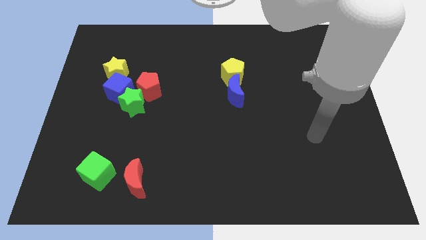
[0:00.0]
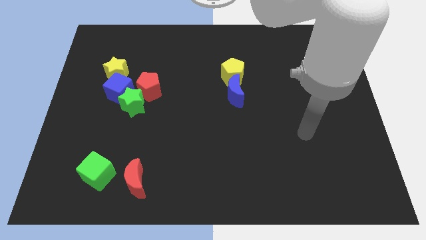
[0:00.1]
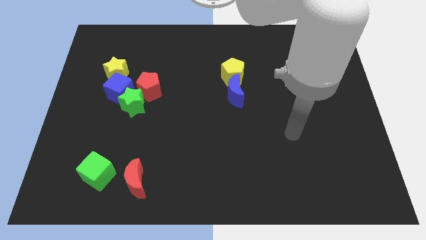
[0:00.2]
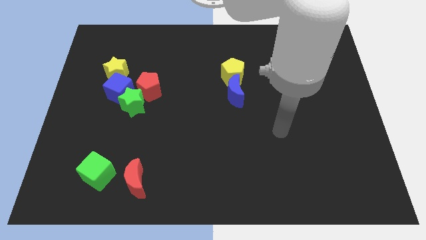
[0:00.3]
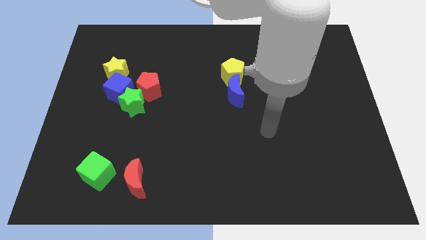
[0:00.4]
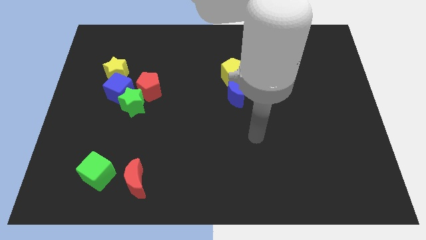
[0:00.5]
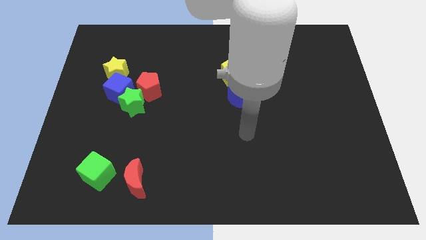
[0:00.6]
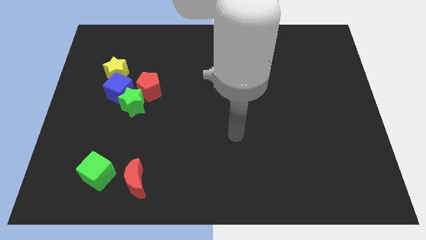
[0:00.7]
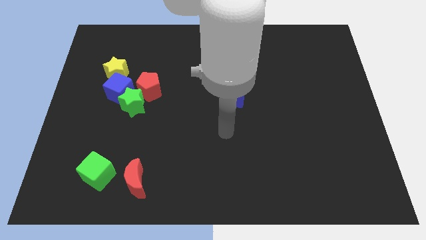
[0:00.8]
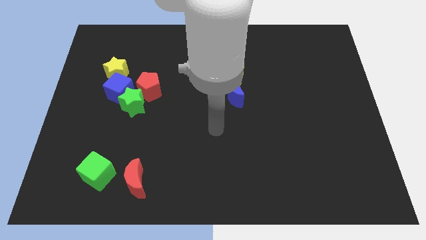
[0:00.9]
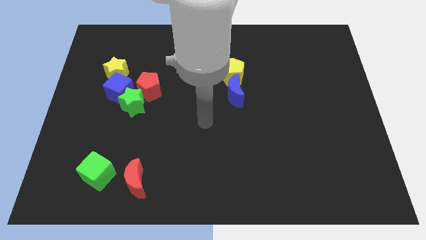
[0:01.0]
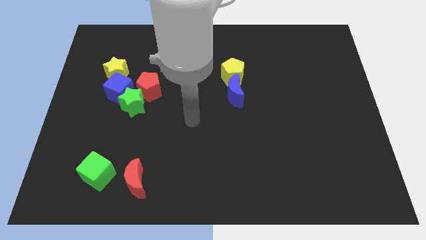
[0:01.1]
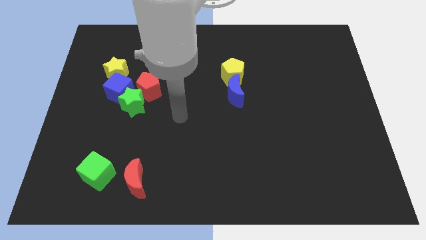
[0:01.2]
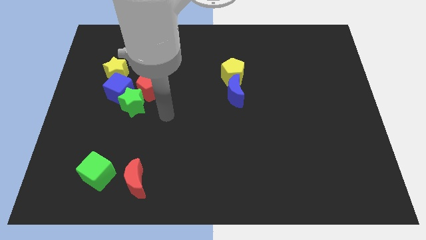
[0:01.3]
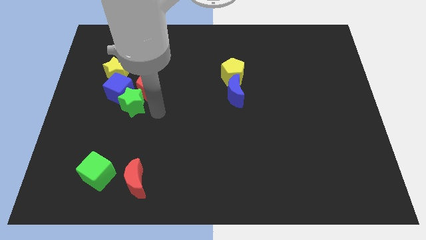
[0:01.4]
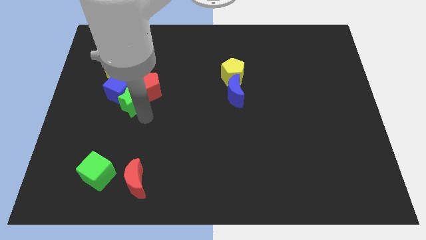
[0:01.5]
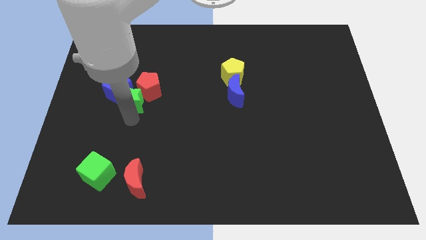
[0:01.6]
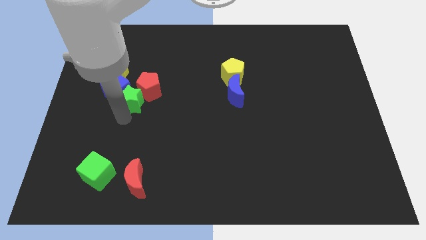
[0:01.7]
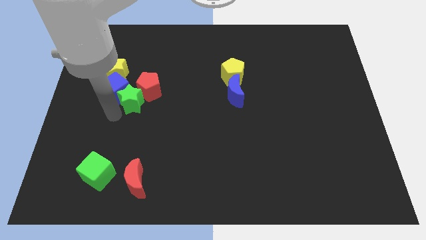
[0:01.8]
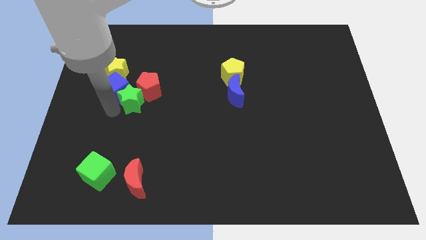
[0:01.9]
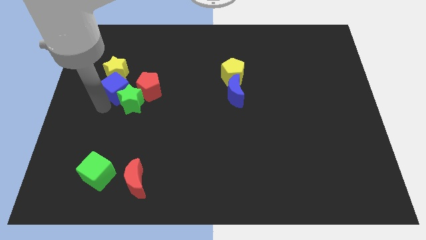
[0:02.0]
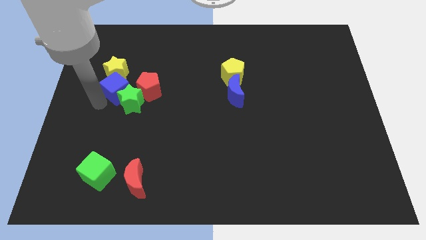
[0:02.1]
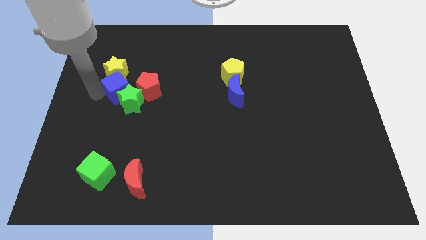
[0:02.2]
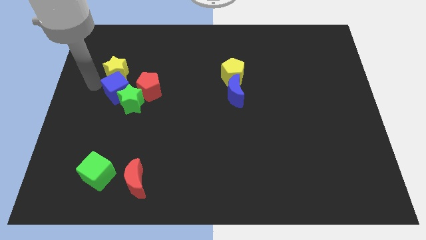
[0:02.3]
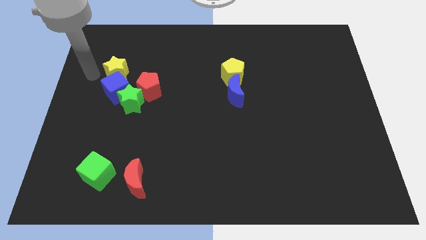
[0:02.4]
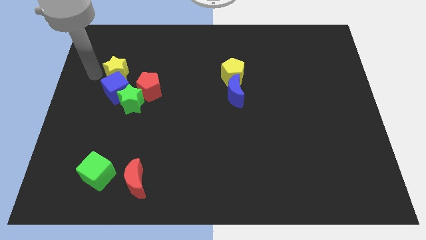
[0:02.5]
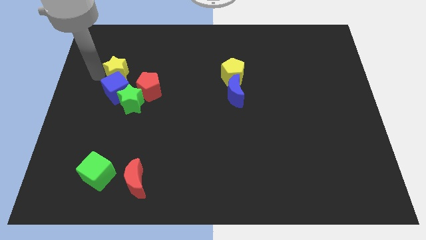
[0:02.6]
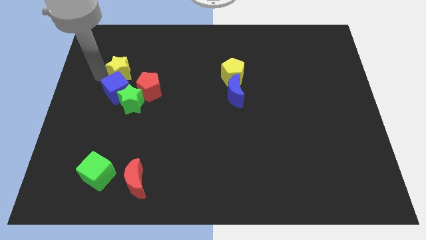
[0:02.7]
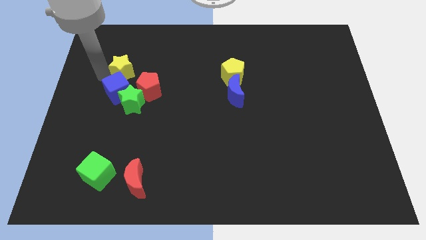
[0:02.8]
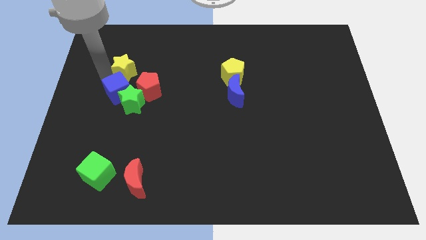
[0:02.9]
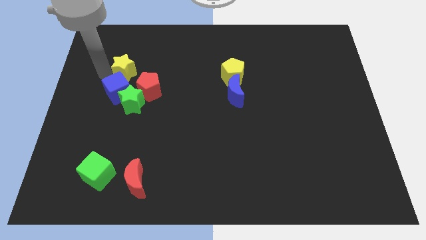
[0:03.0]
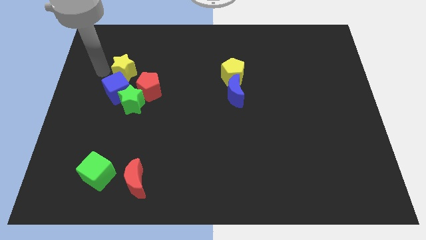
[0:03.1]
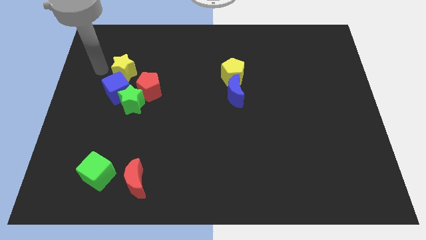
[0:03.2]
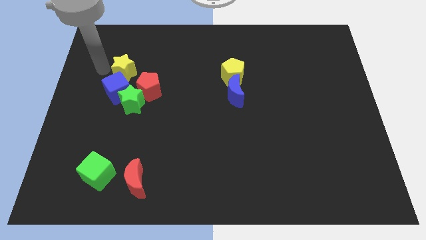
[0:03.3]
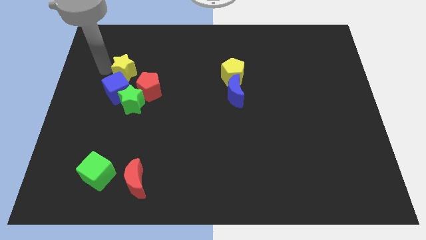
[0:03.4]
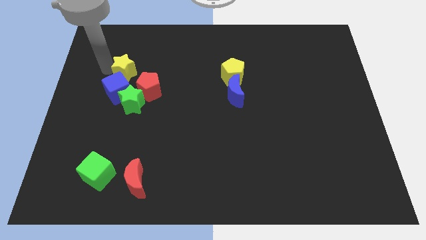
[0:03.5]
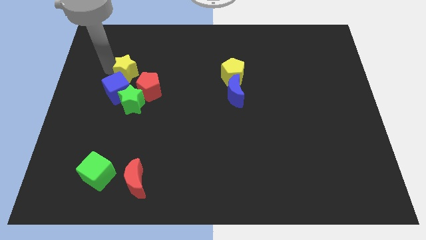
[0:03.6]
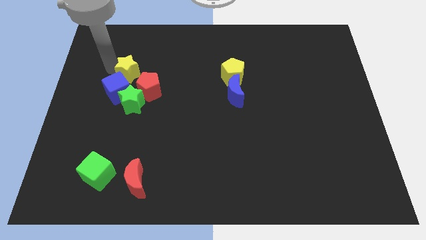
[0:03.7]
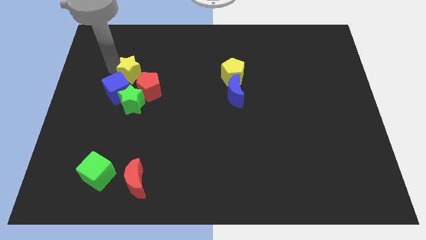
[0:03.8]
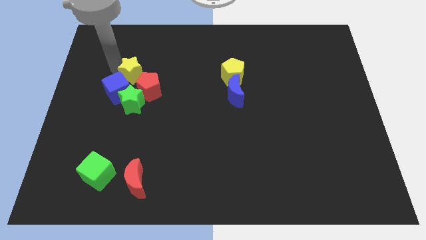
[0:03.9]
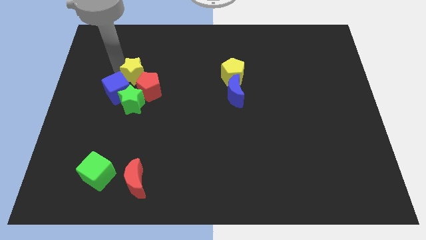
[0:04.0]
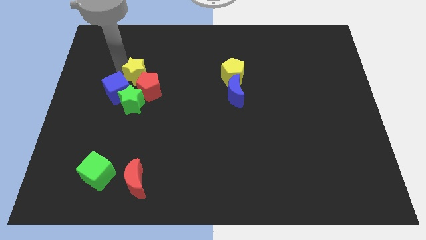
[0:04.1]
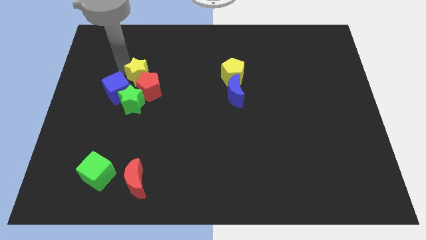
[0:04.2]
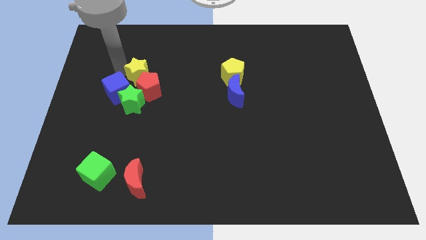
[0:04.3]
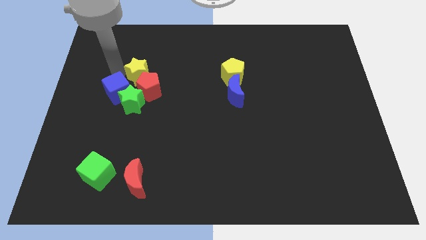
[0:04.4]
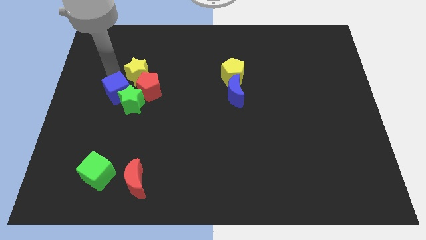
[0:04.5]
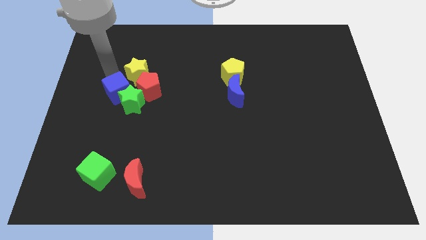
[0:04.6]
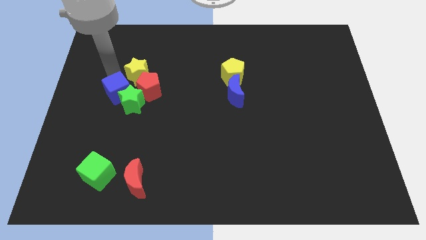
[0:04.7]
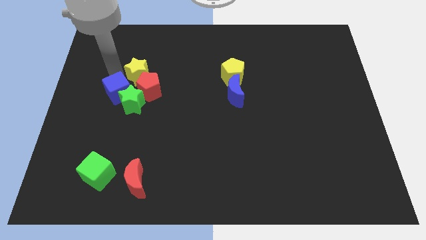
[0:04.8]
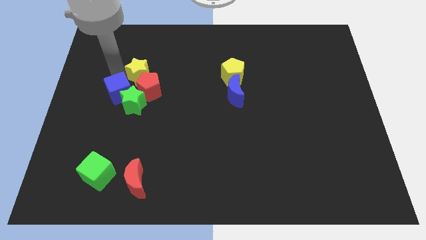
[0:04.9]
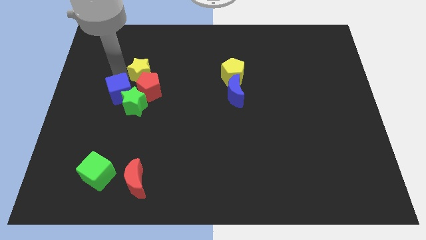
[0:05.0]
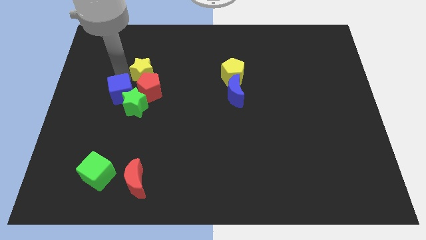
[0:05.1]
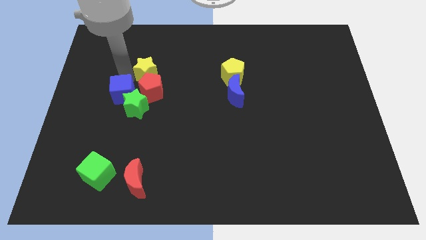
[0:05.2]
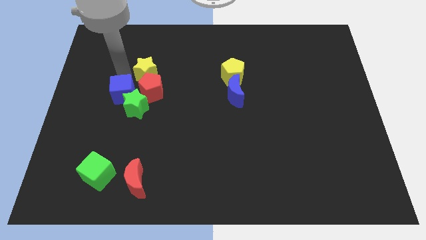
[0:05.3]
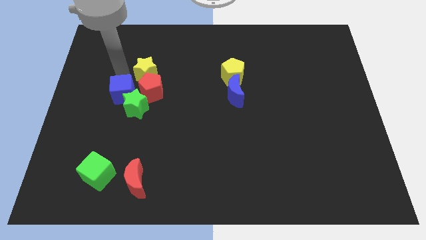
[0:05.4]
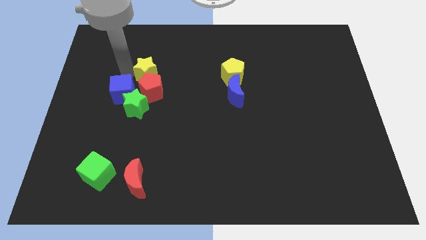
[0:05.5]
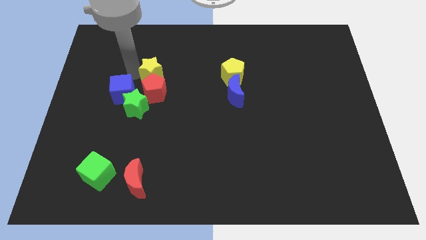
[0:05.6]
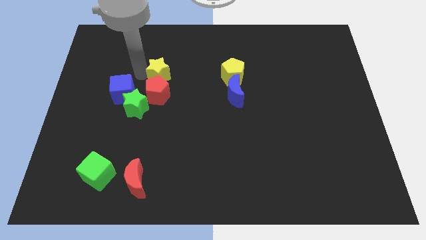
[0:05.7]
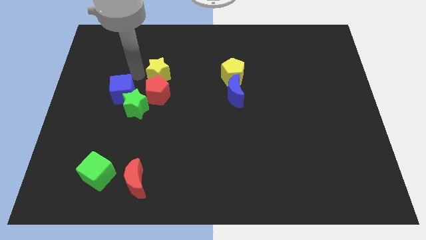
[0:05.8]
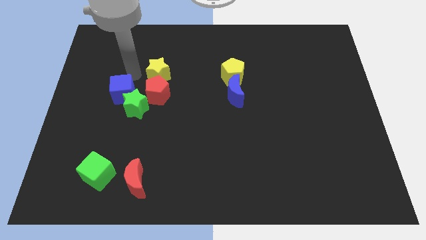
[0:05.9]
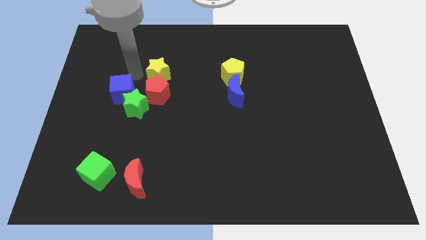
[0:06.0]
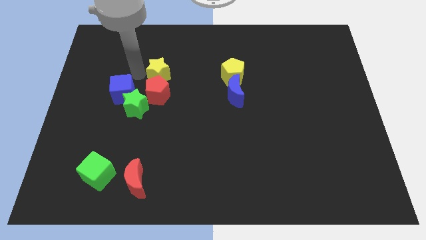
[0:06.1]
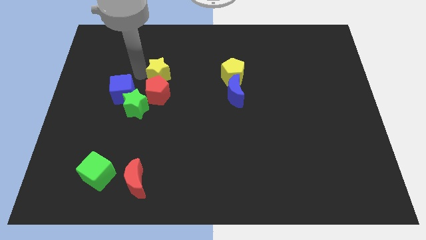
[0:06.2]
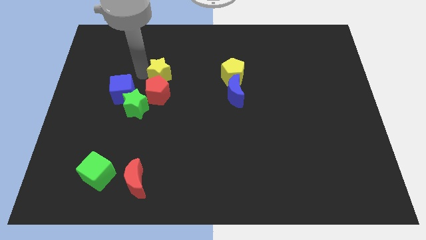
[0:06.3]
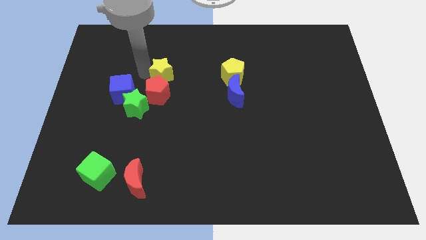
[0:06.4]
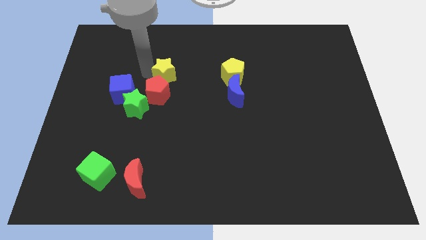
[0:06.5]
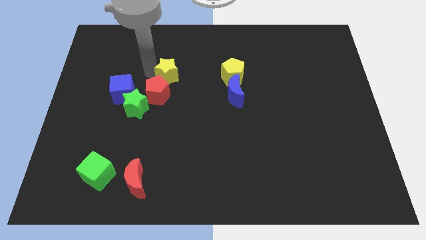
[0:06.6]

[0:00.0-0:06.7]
move the yellow star left of the yellow pentagon
